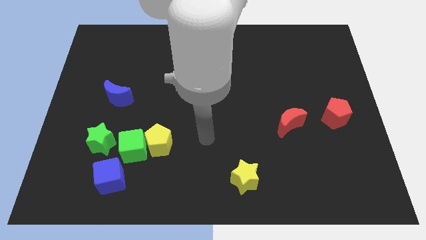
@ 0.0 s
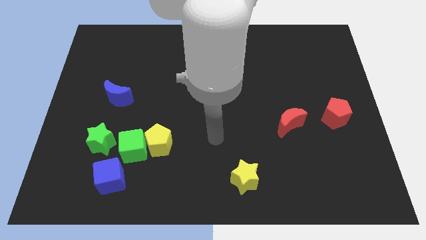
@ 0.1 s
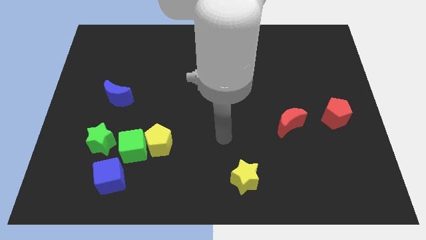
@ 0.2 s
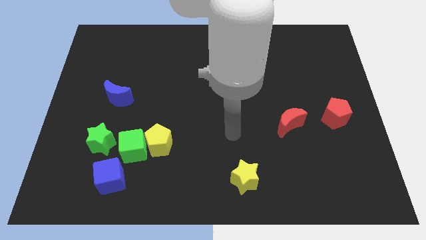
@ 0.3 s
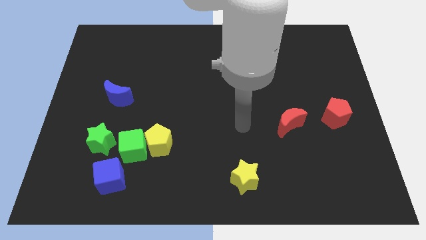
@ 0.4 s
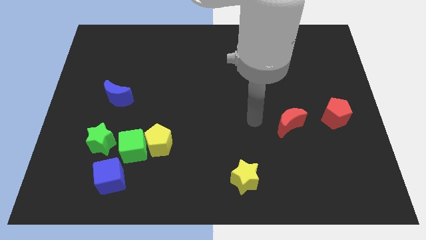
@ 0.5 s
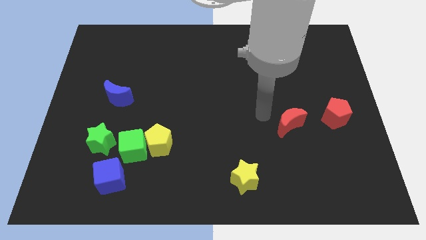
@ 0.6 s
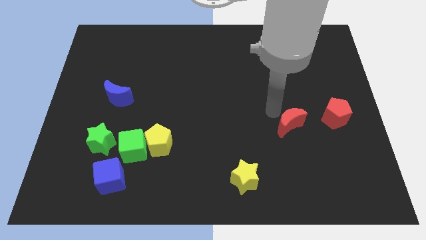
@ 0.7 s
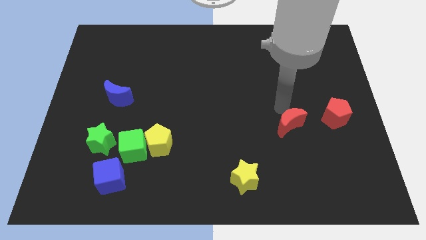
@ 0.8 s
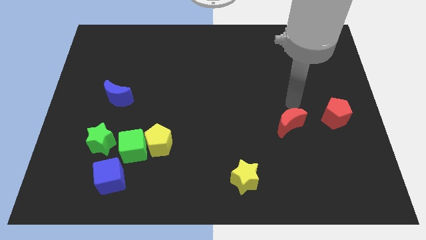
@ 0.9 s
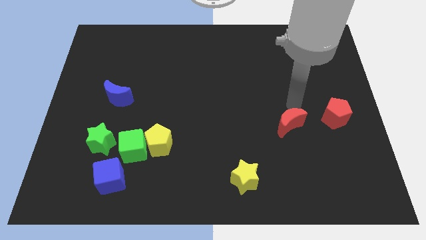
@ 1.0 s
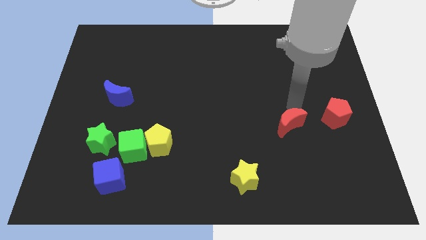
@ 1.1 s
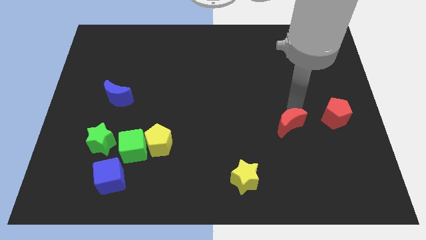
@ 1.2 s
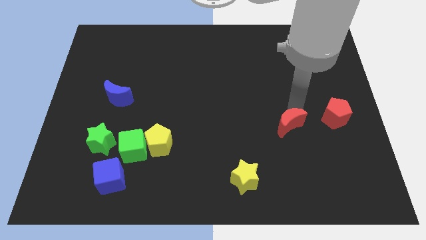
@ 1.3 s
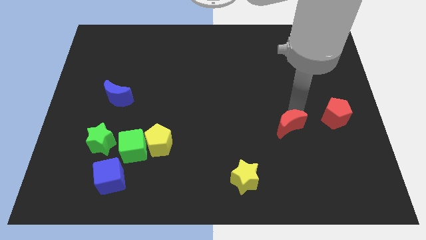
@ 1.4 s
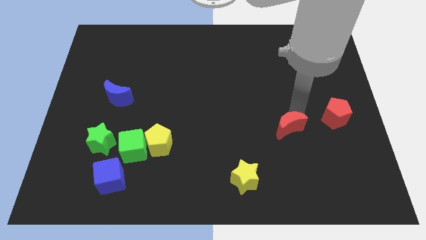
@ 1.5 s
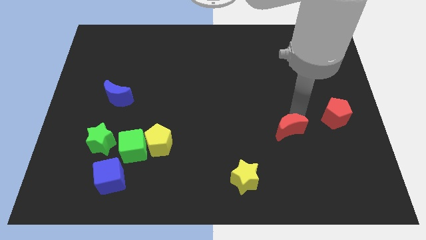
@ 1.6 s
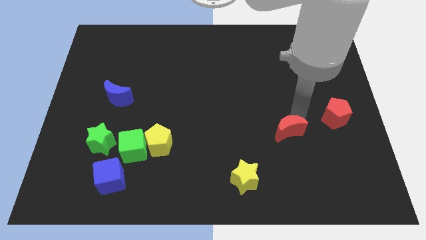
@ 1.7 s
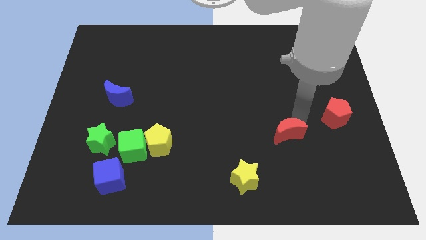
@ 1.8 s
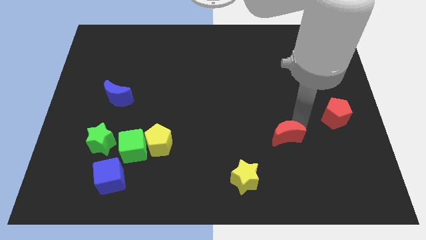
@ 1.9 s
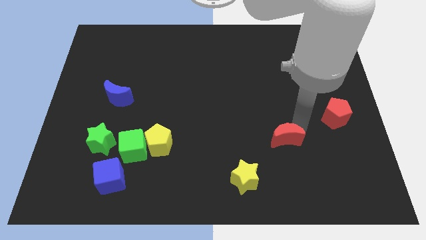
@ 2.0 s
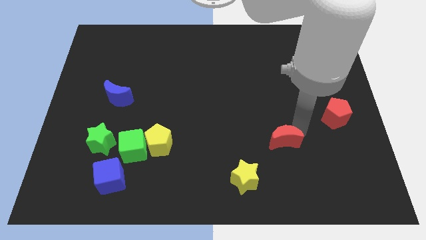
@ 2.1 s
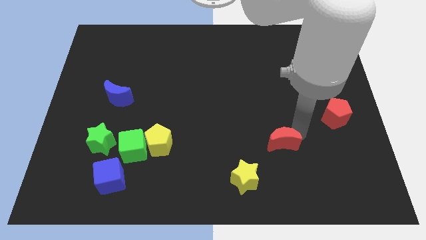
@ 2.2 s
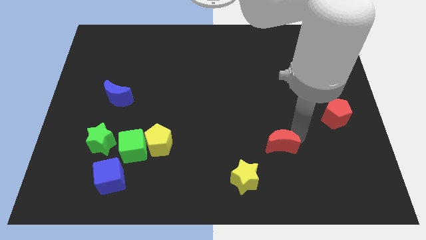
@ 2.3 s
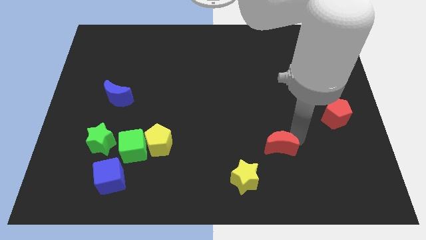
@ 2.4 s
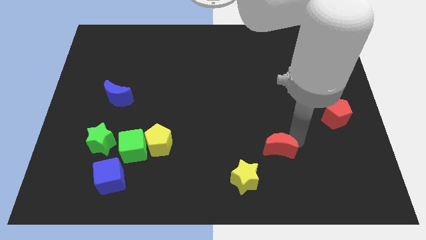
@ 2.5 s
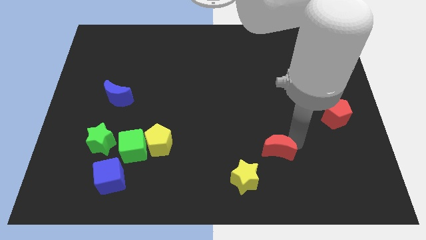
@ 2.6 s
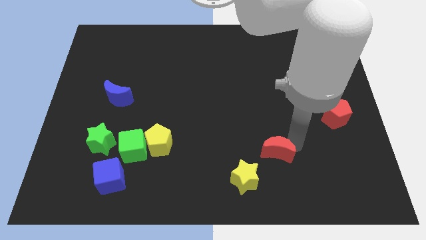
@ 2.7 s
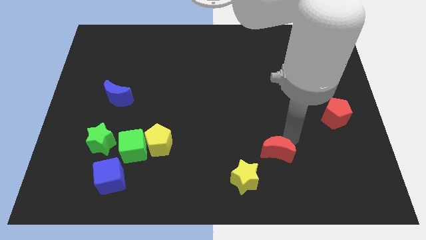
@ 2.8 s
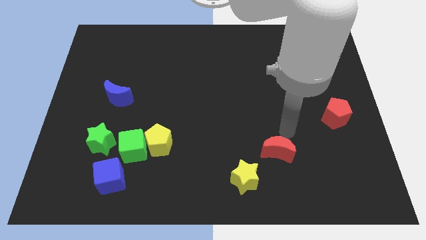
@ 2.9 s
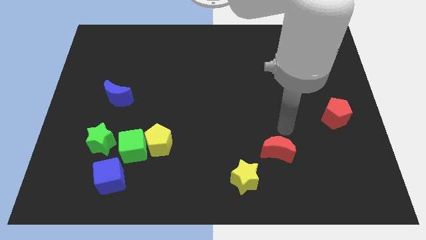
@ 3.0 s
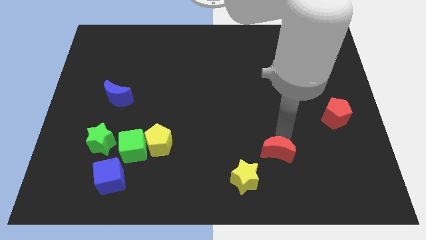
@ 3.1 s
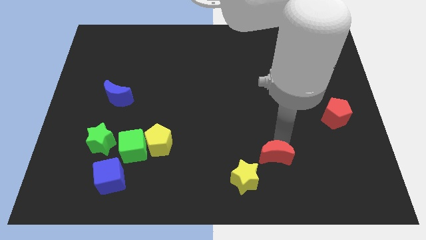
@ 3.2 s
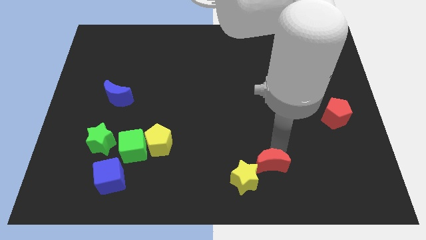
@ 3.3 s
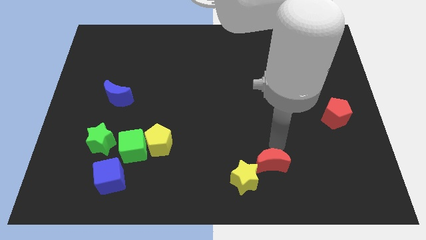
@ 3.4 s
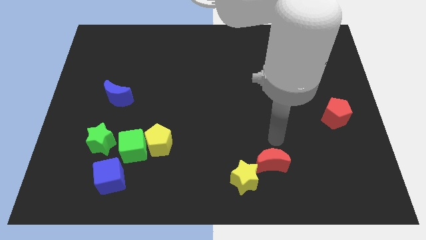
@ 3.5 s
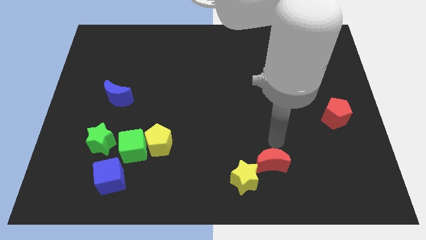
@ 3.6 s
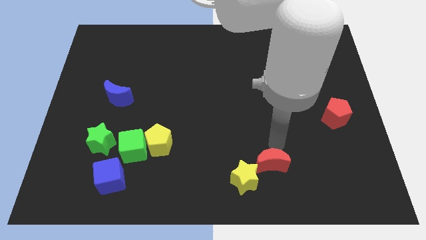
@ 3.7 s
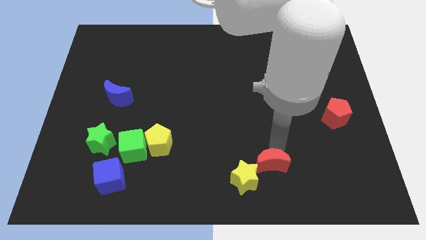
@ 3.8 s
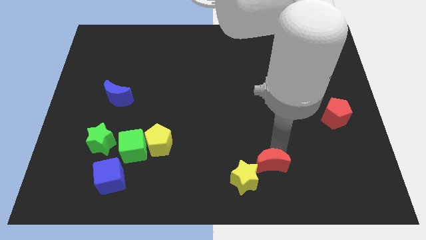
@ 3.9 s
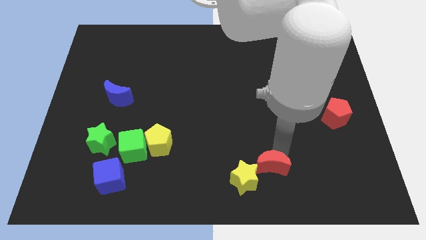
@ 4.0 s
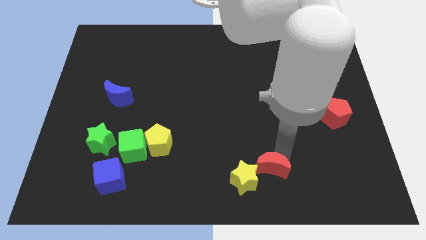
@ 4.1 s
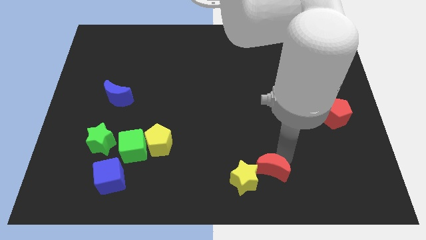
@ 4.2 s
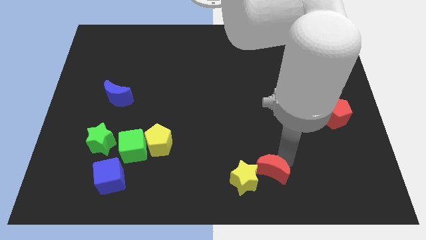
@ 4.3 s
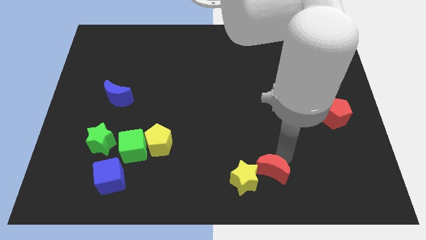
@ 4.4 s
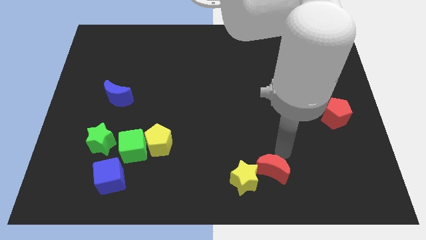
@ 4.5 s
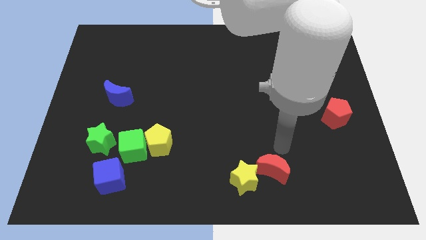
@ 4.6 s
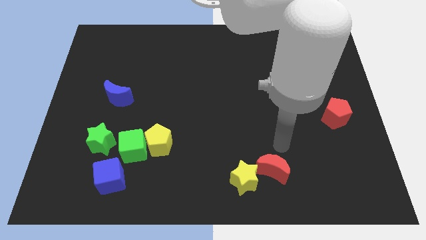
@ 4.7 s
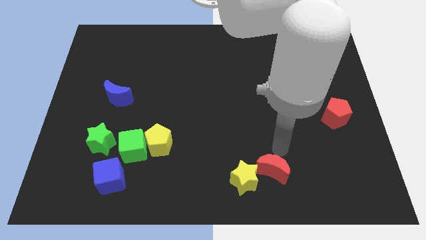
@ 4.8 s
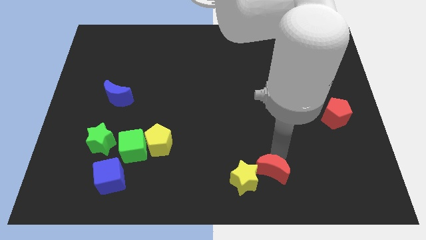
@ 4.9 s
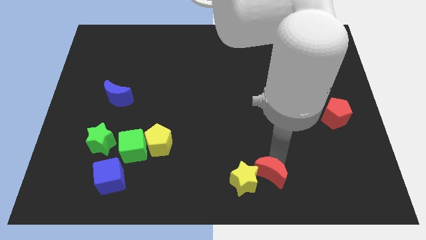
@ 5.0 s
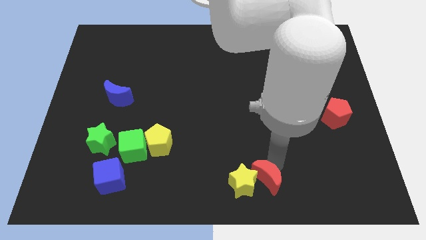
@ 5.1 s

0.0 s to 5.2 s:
move the red moon to the bottom
